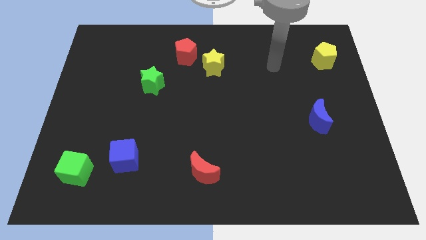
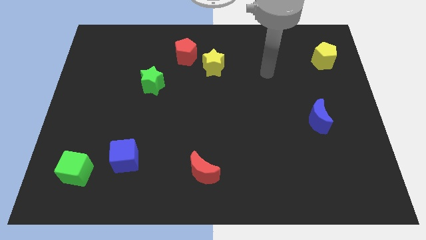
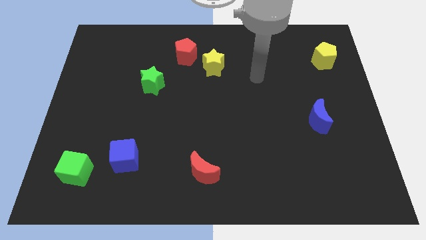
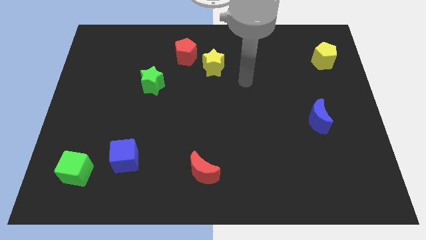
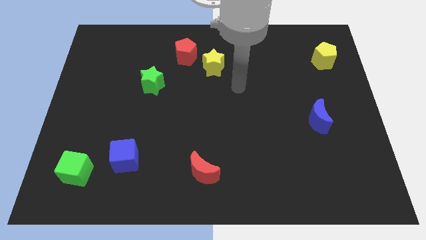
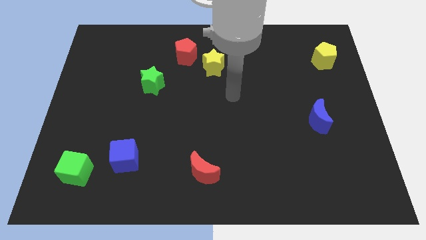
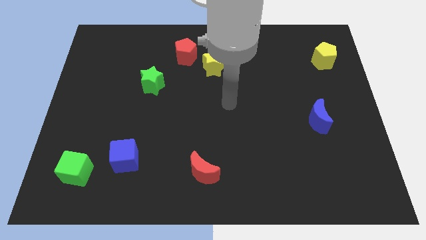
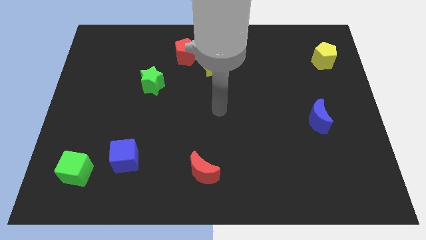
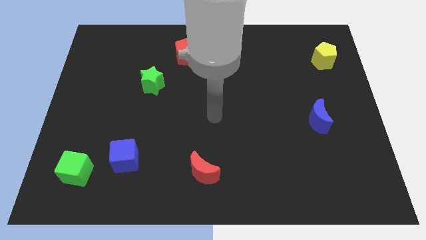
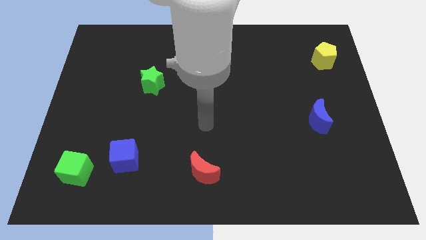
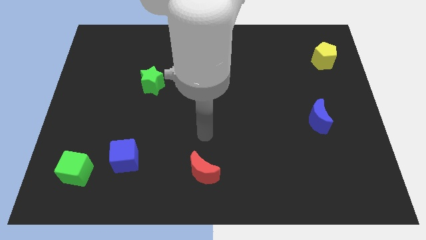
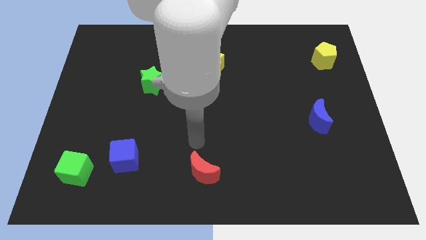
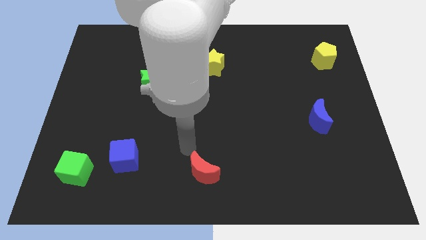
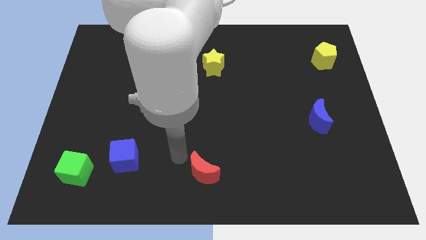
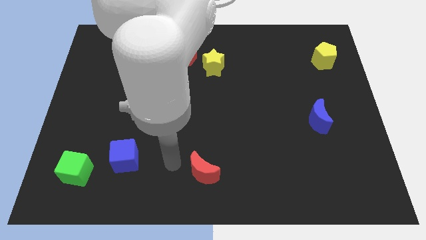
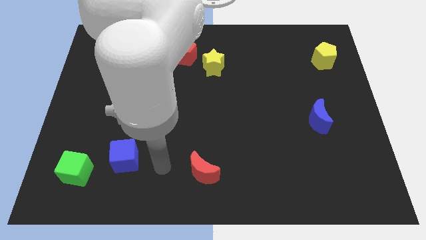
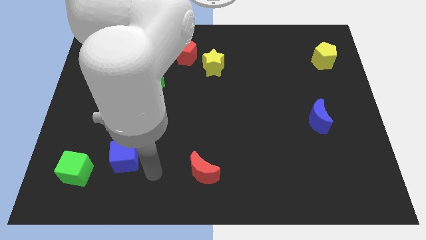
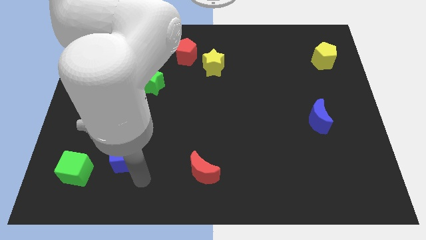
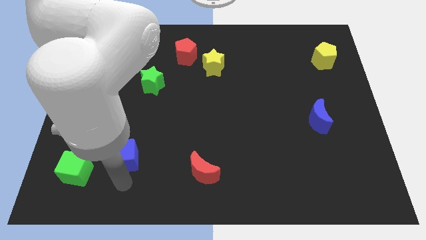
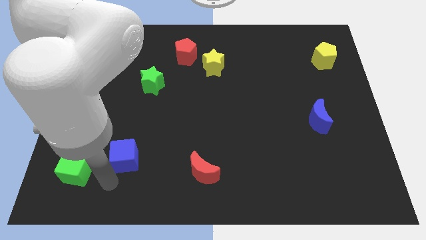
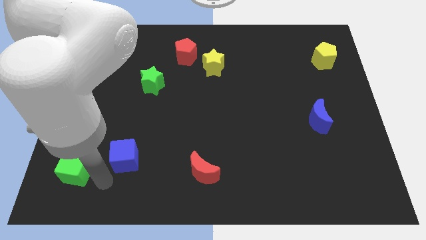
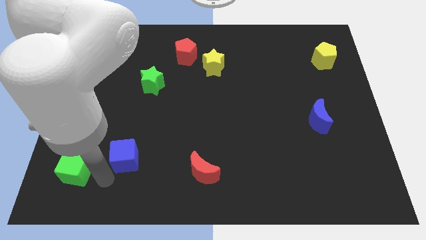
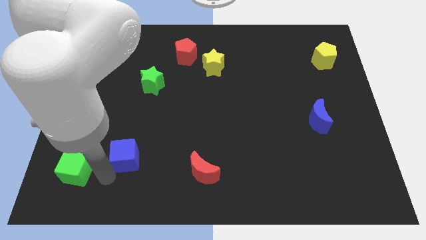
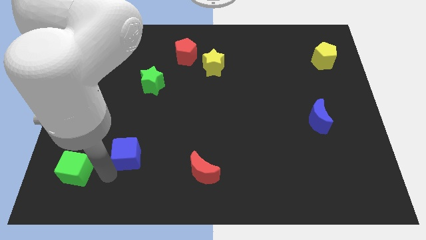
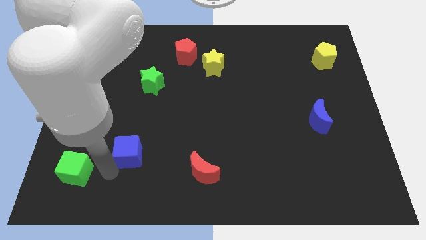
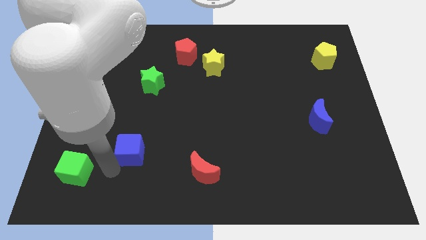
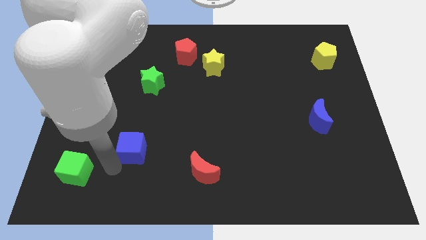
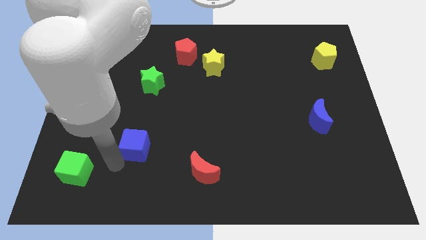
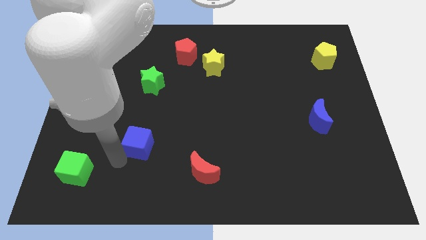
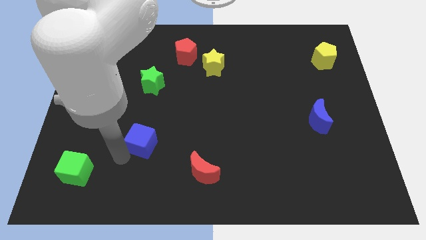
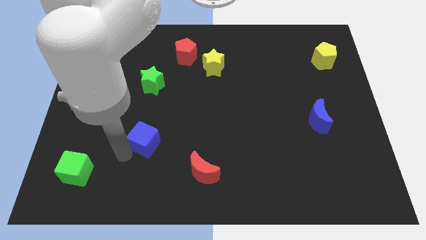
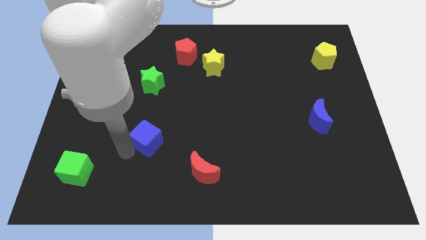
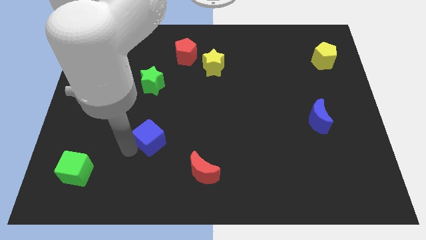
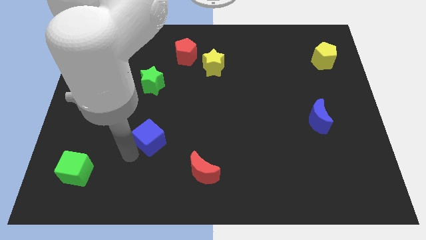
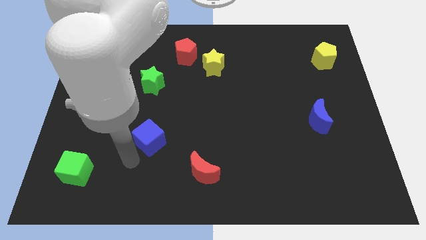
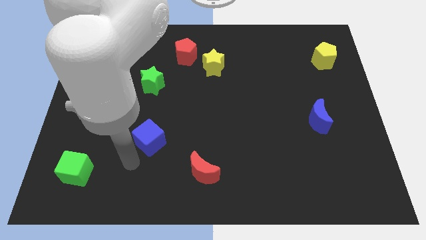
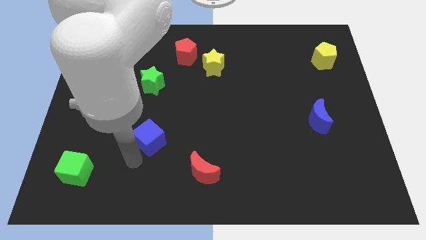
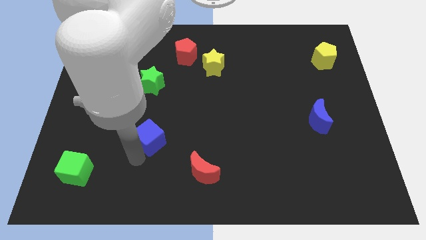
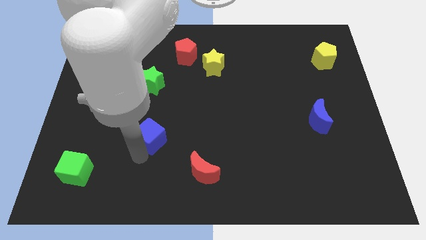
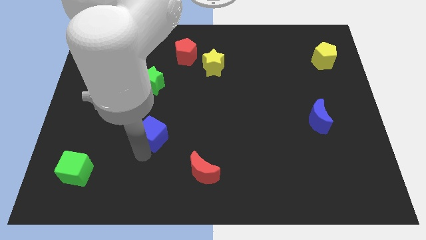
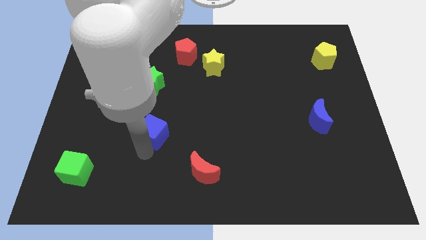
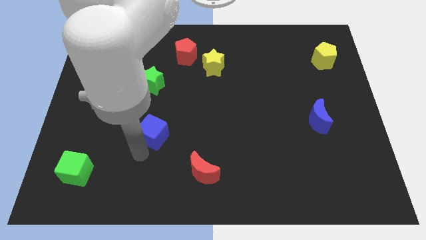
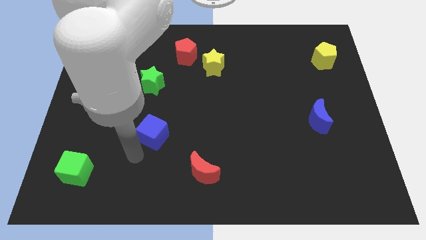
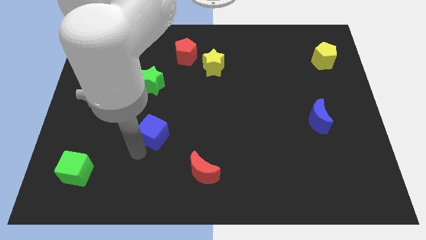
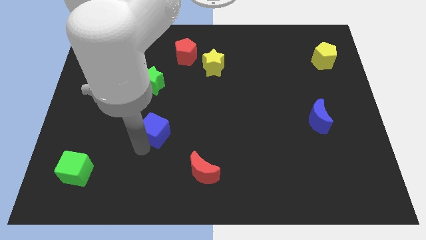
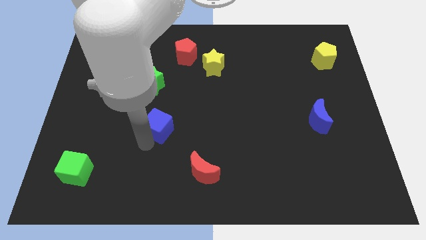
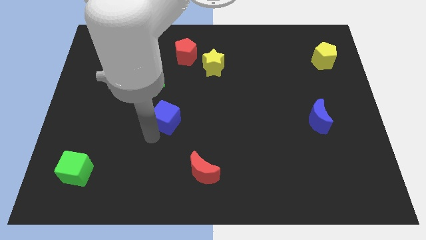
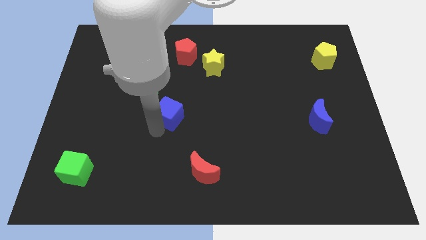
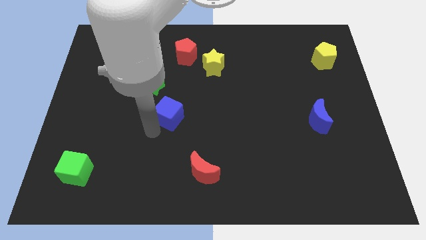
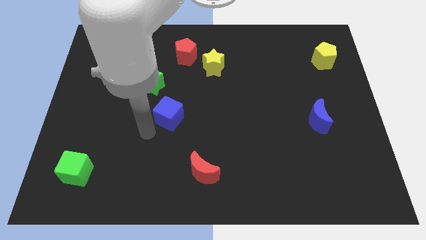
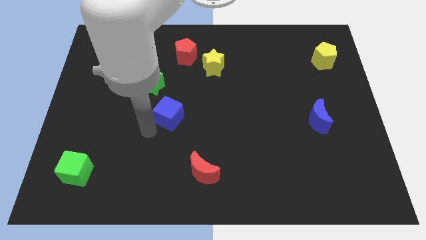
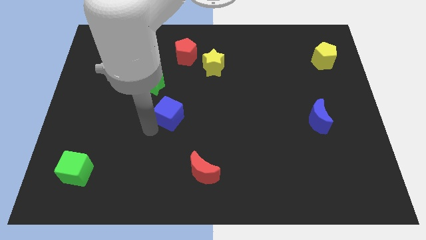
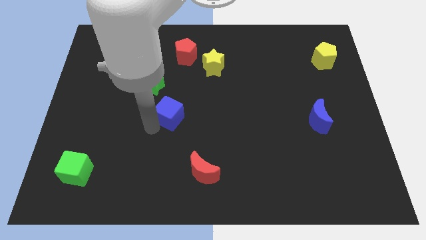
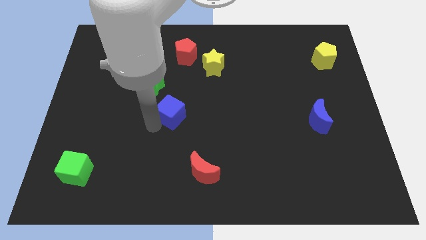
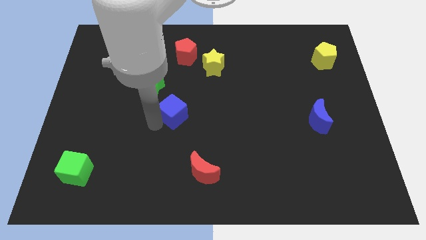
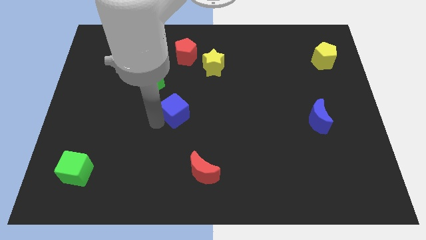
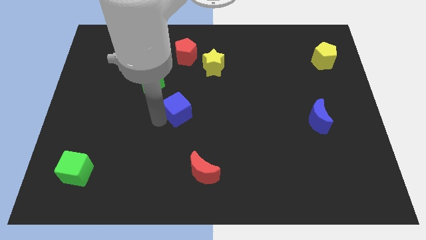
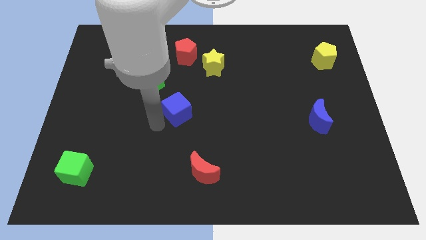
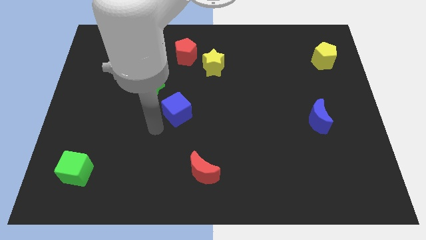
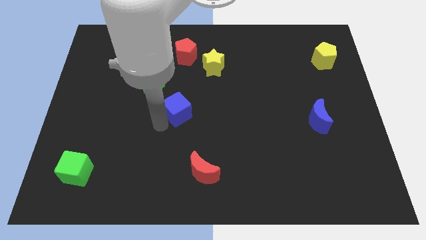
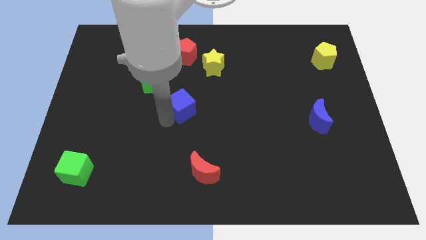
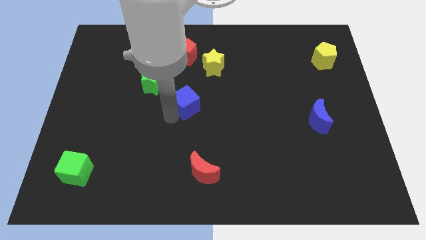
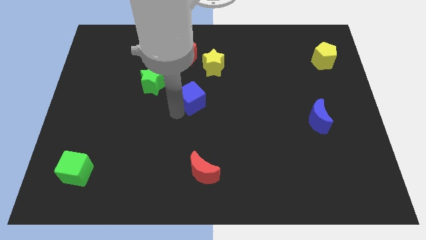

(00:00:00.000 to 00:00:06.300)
slide the blue cube up and right diagonally

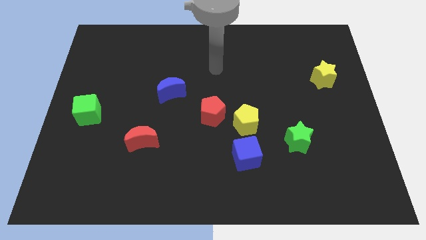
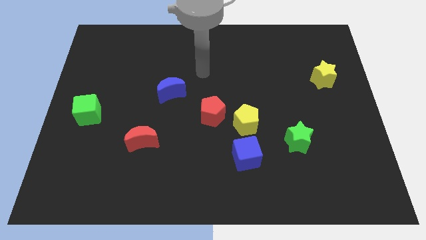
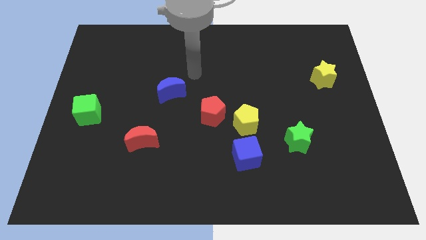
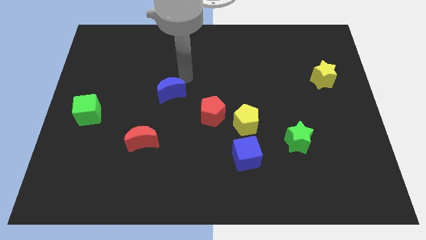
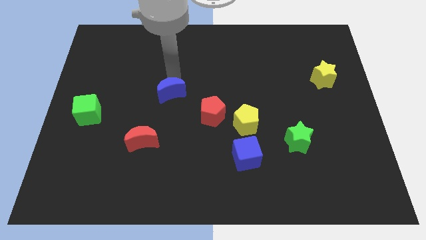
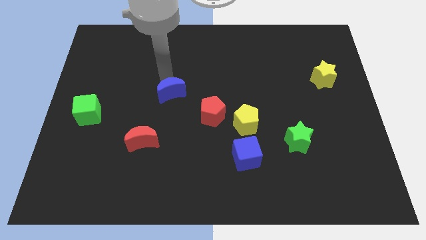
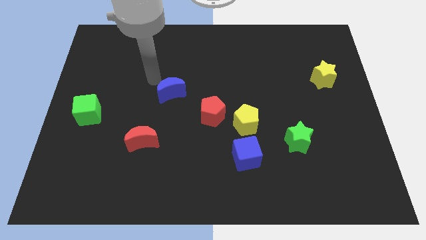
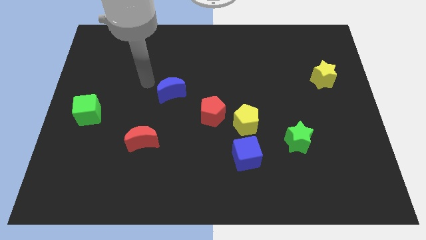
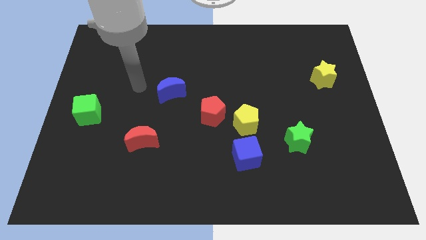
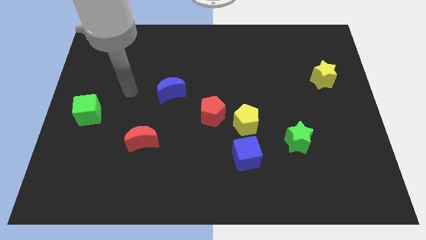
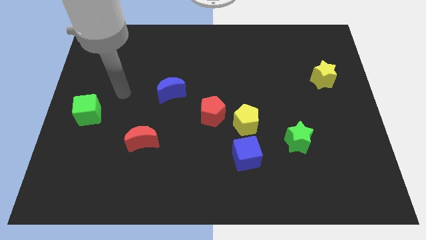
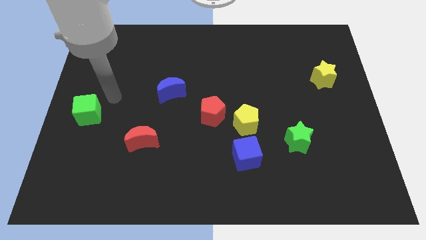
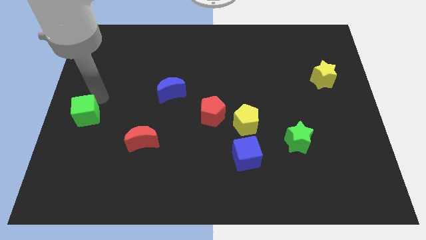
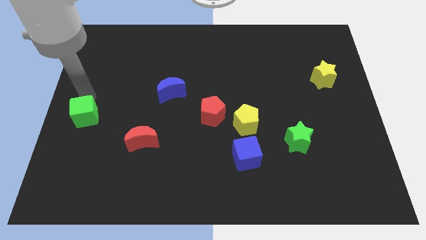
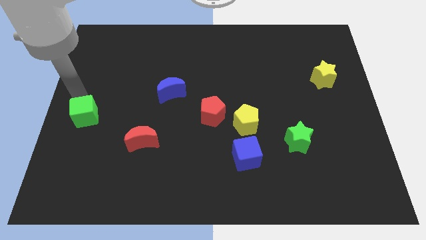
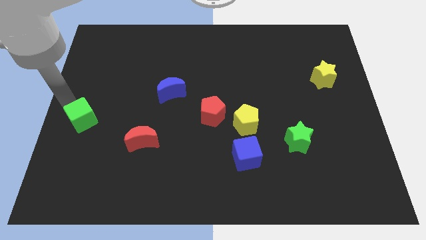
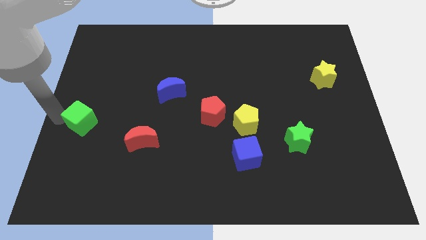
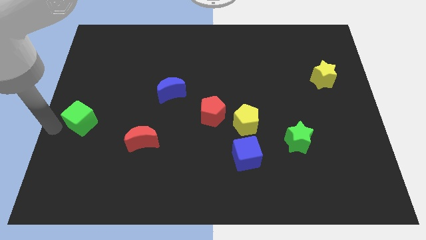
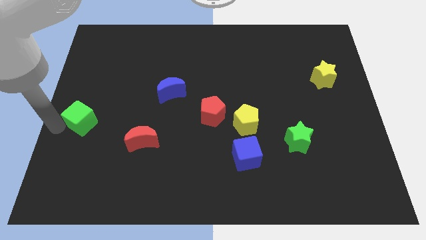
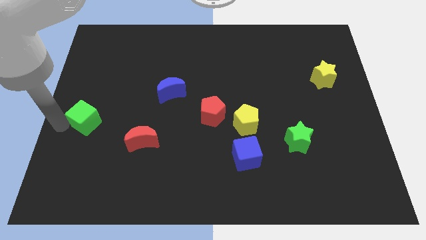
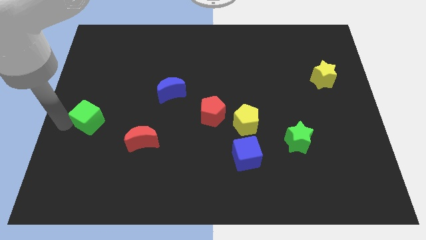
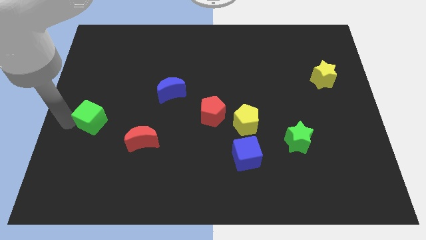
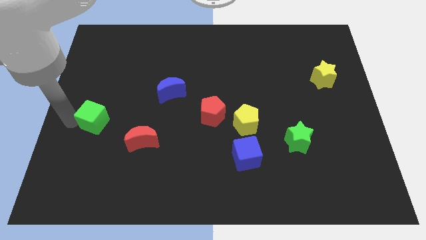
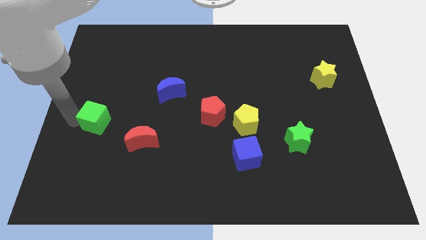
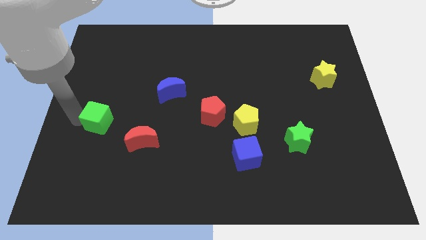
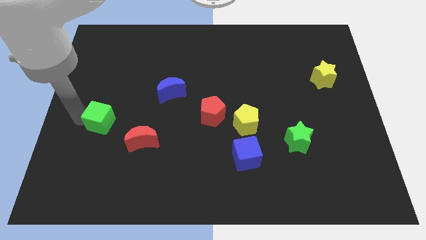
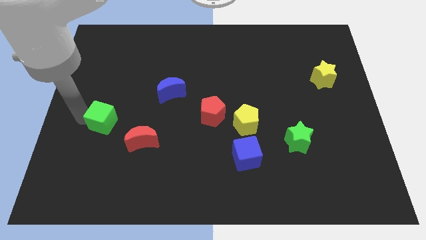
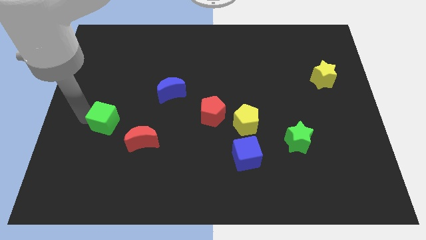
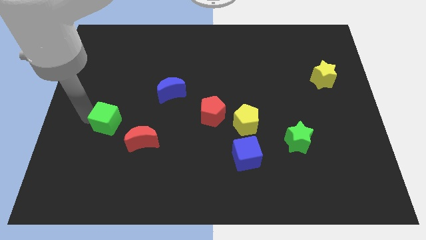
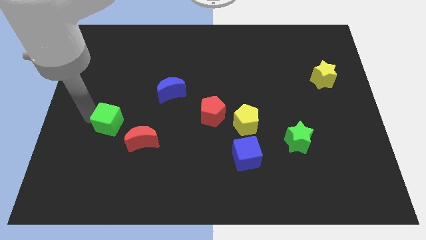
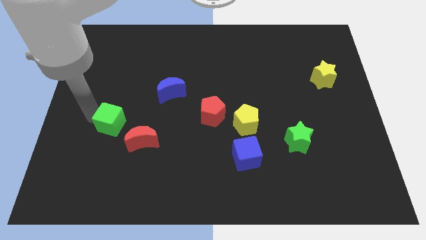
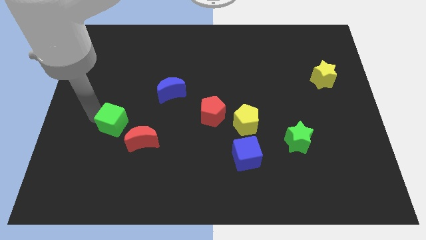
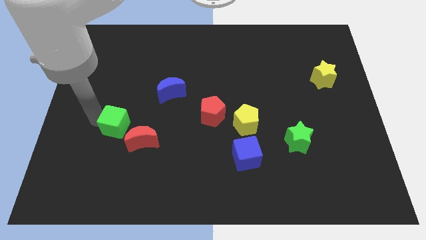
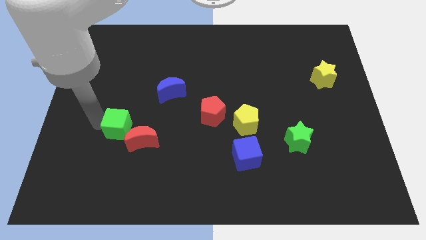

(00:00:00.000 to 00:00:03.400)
slightly push the green cube right
